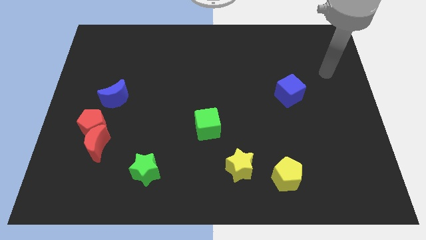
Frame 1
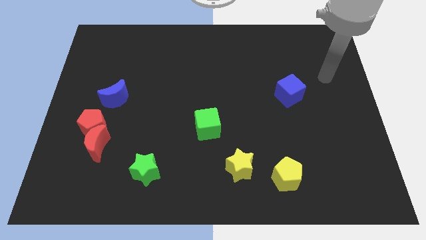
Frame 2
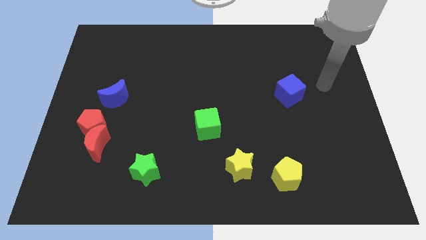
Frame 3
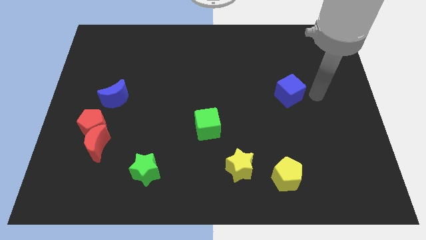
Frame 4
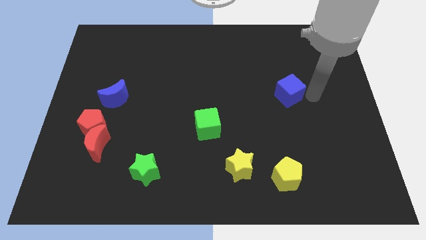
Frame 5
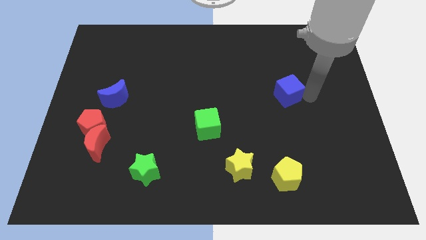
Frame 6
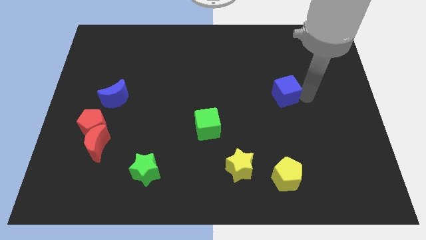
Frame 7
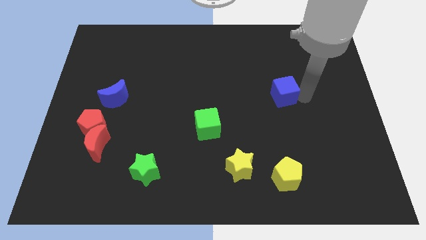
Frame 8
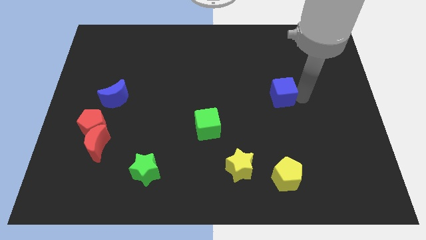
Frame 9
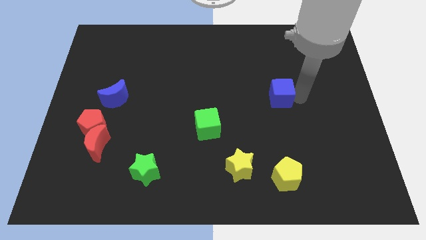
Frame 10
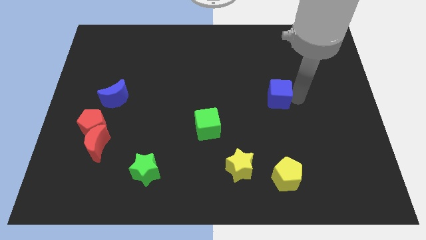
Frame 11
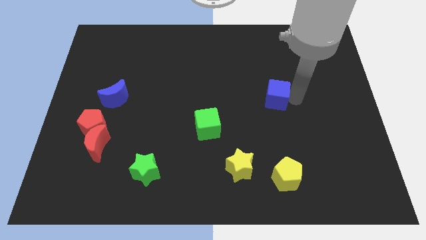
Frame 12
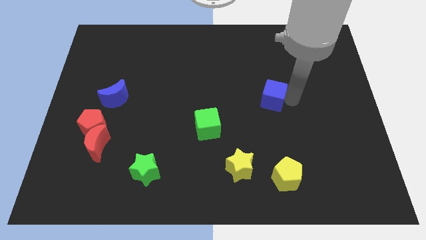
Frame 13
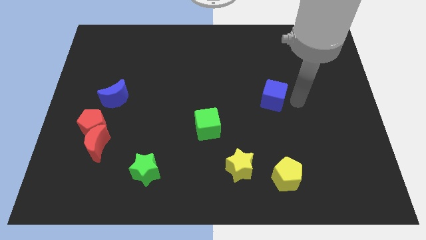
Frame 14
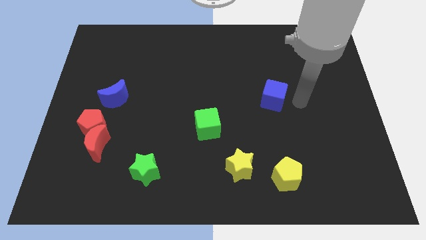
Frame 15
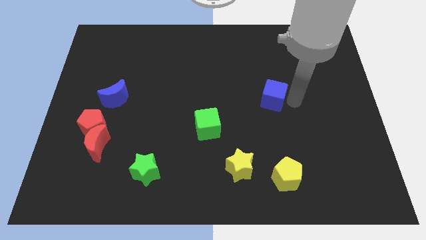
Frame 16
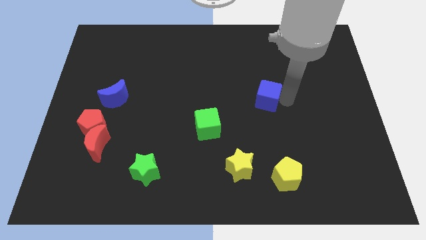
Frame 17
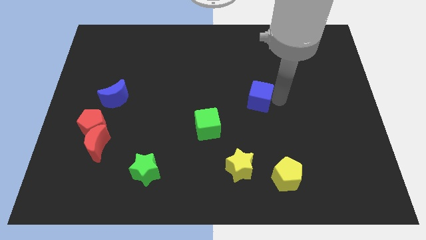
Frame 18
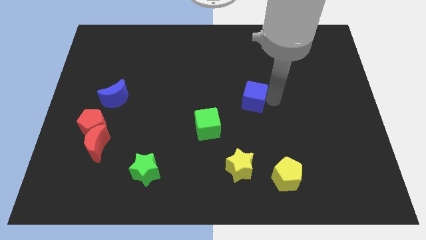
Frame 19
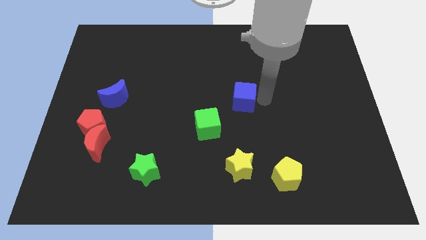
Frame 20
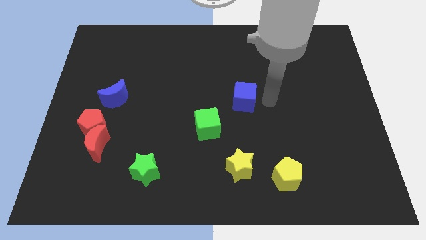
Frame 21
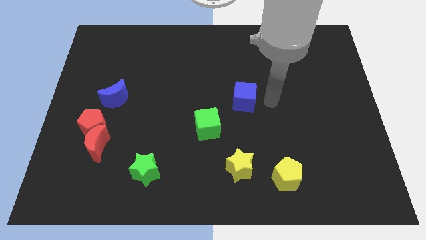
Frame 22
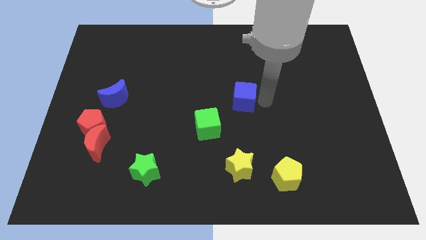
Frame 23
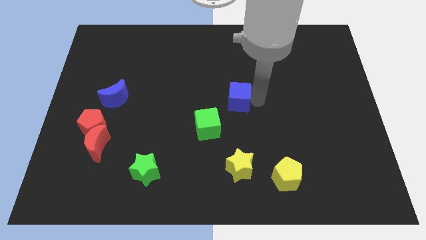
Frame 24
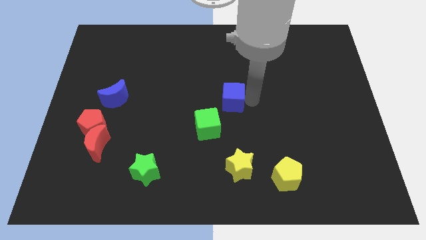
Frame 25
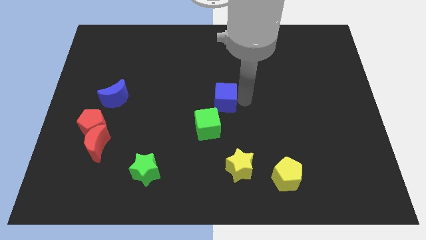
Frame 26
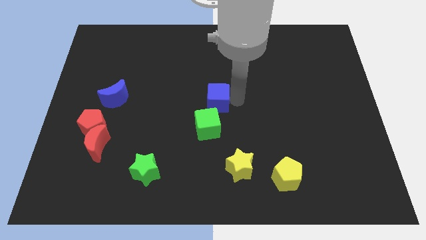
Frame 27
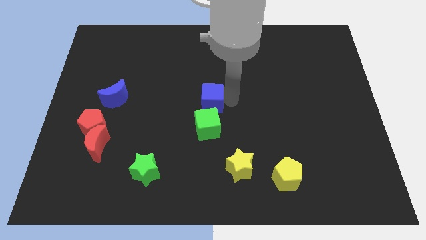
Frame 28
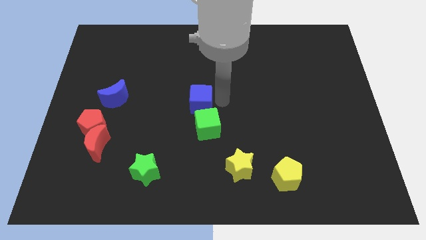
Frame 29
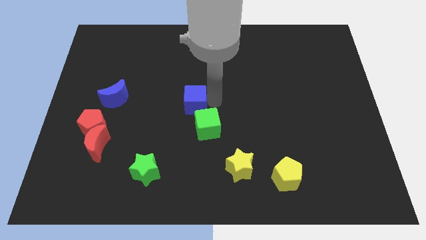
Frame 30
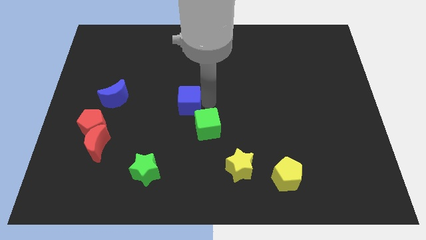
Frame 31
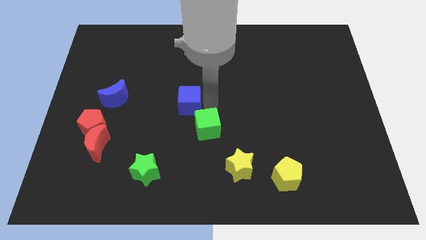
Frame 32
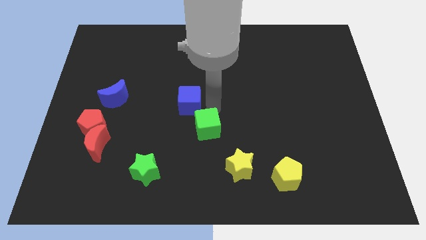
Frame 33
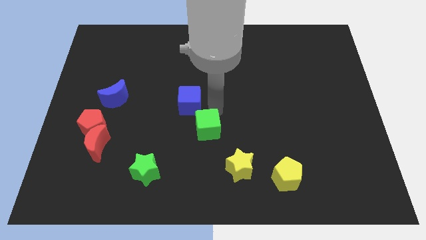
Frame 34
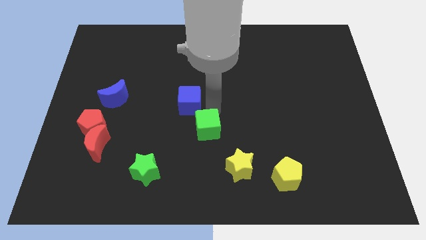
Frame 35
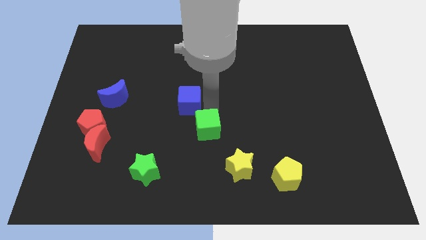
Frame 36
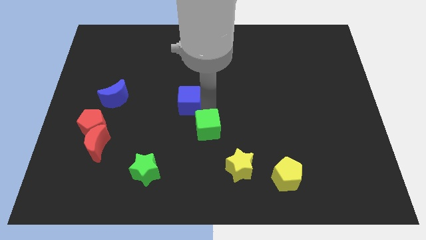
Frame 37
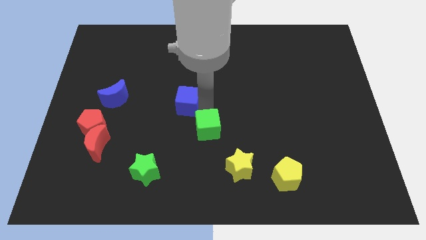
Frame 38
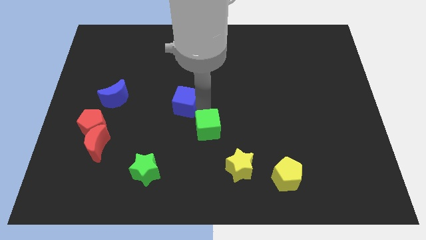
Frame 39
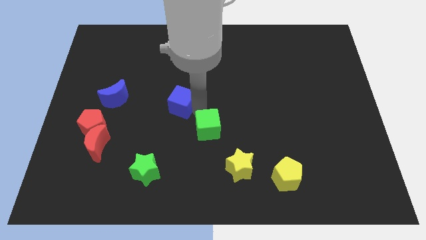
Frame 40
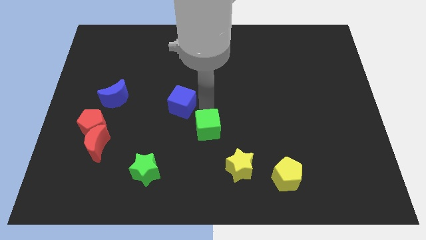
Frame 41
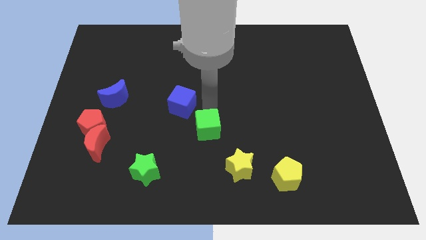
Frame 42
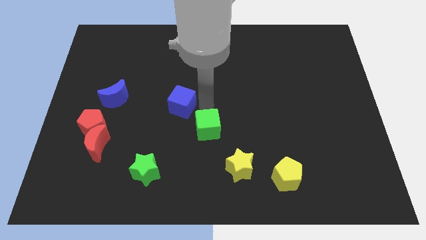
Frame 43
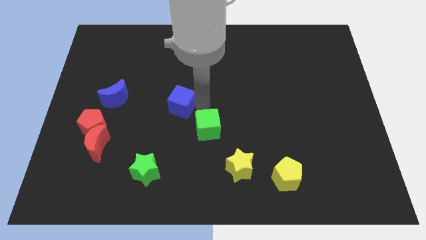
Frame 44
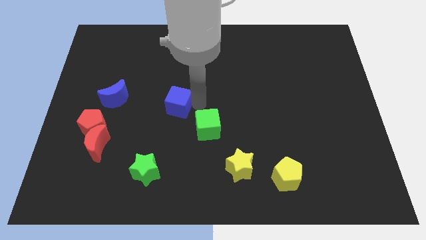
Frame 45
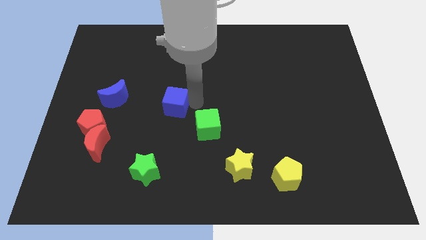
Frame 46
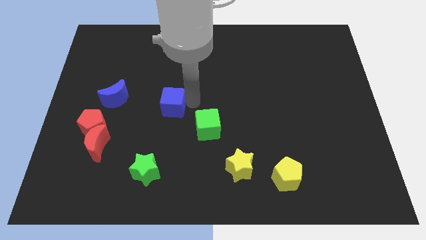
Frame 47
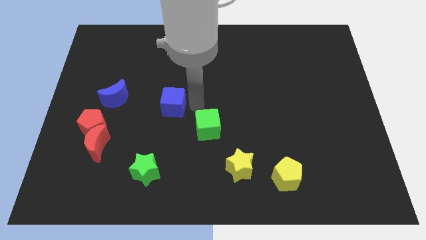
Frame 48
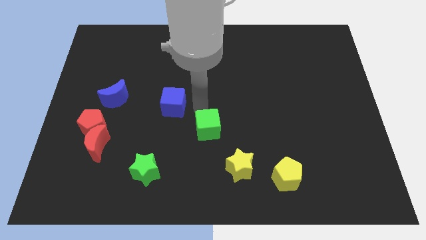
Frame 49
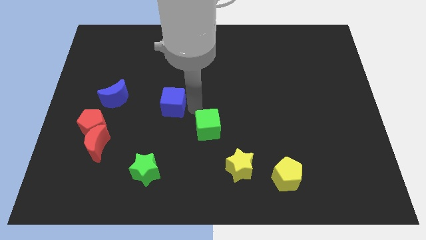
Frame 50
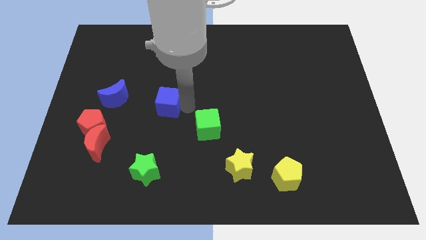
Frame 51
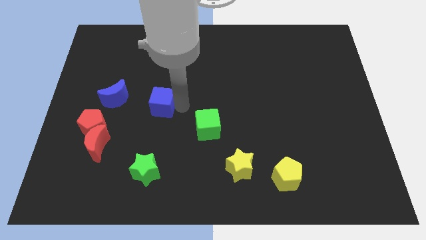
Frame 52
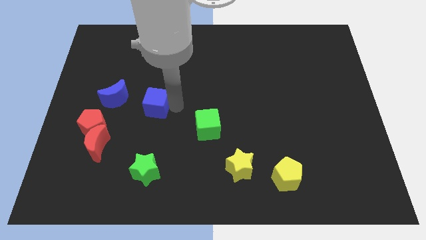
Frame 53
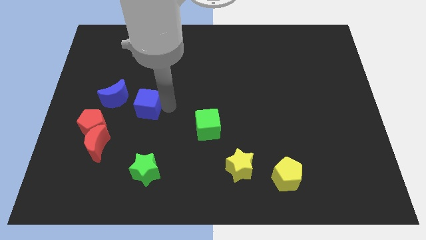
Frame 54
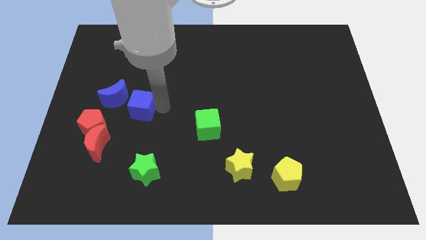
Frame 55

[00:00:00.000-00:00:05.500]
push the blue cube diagonally up and to the right of the red pentagon

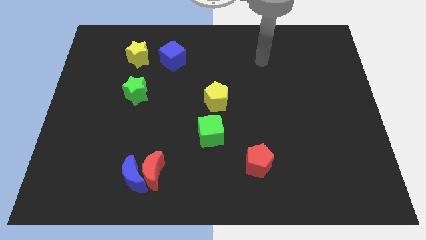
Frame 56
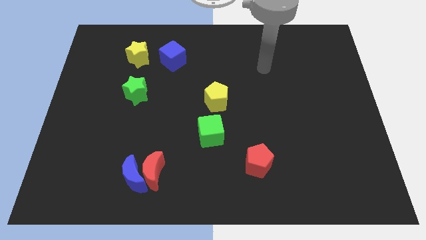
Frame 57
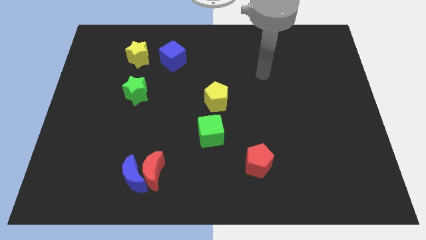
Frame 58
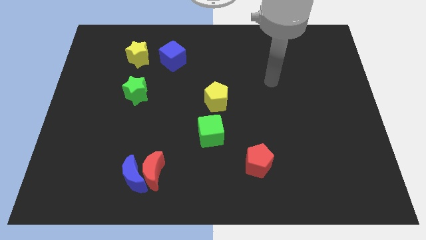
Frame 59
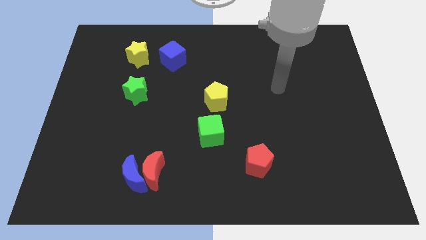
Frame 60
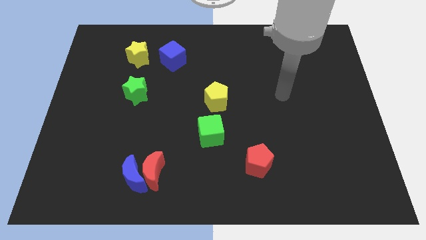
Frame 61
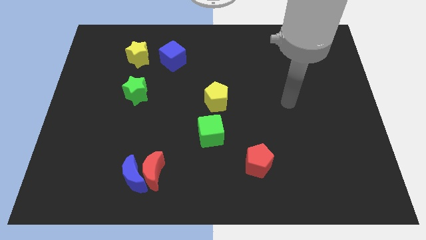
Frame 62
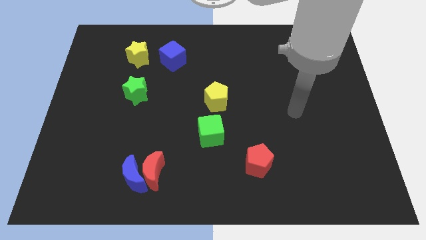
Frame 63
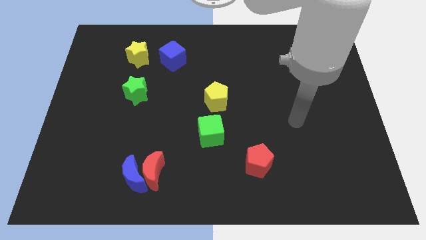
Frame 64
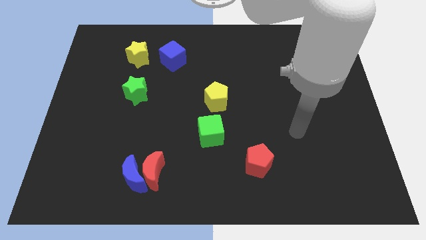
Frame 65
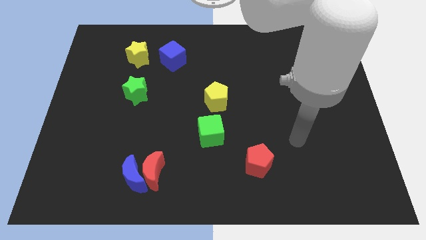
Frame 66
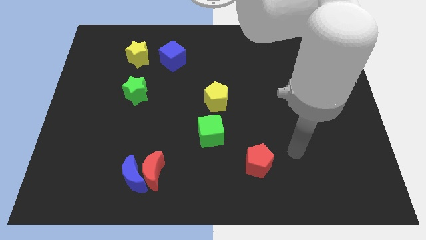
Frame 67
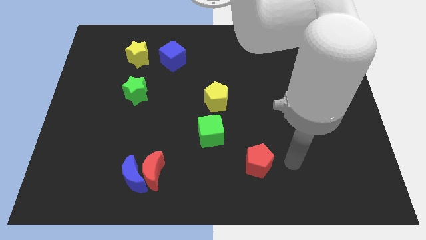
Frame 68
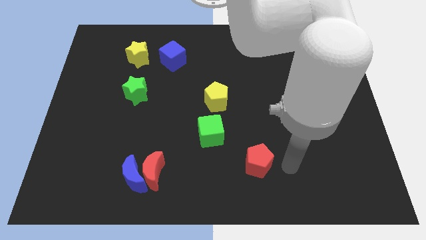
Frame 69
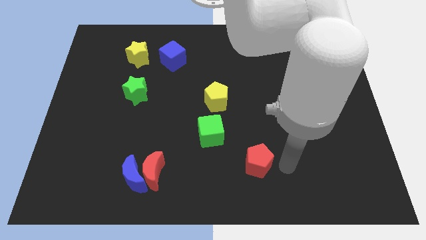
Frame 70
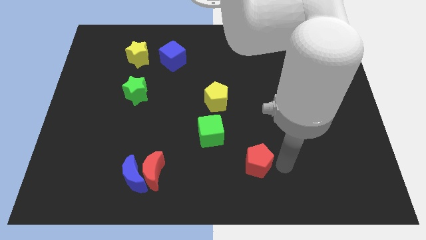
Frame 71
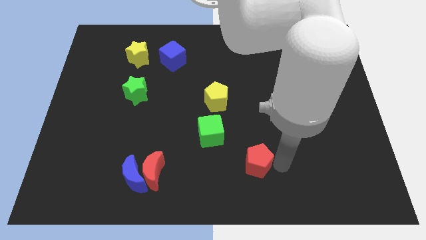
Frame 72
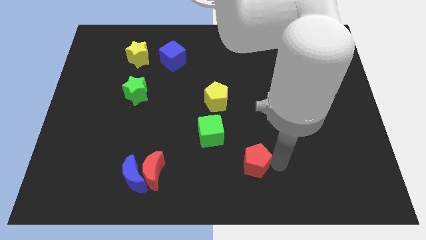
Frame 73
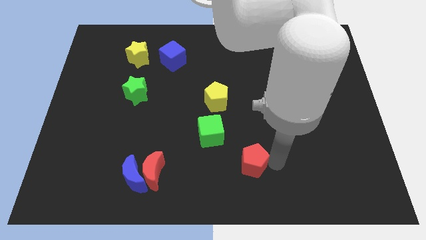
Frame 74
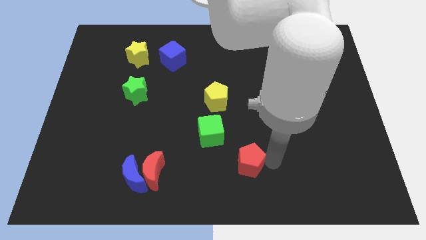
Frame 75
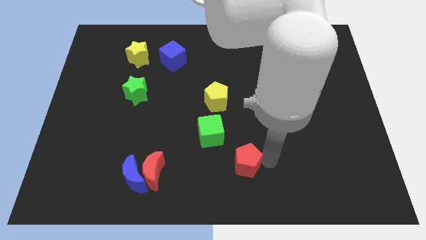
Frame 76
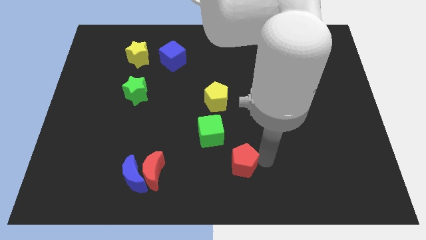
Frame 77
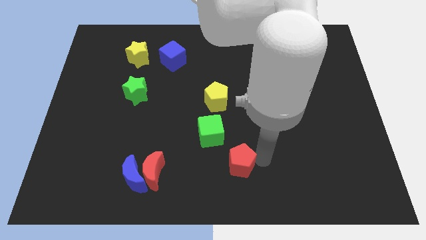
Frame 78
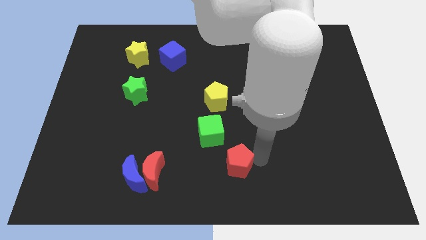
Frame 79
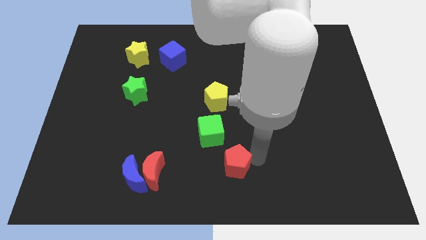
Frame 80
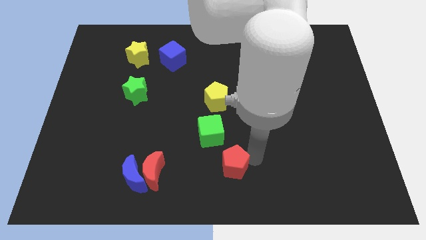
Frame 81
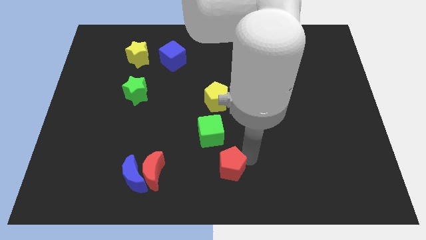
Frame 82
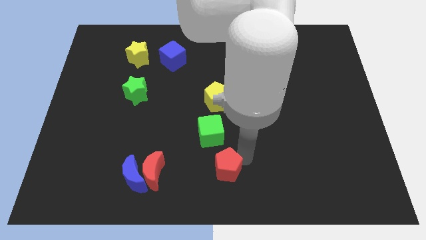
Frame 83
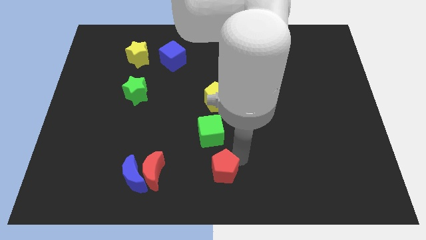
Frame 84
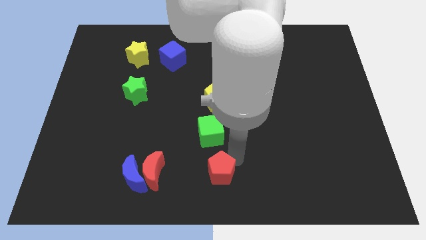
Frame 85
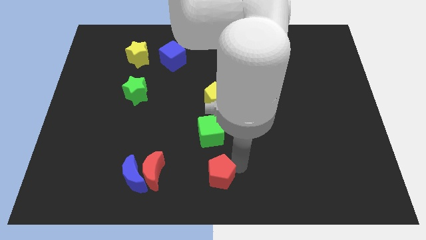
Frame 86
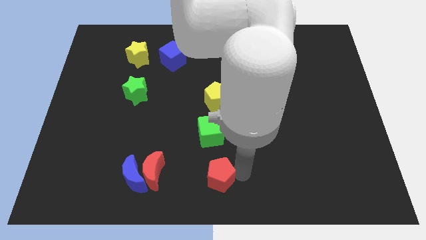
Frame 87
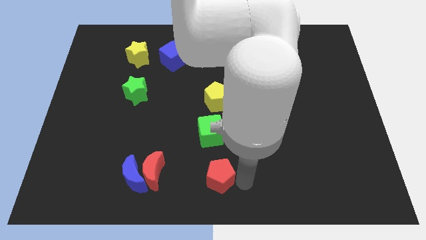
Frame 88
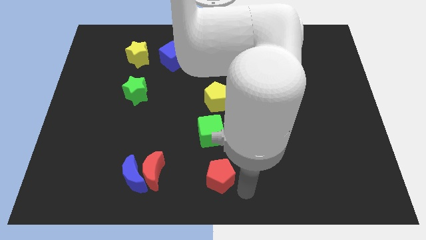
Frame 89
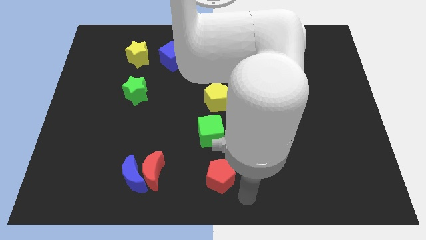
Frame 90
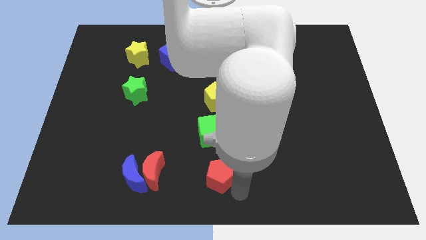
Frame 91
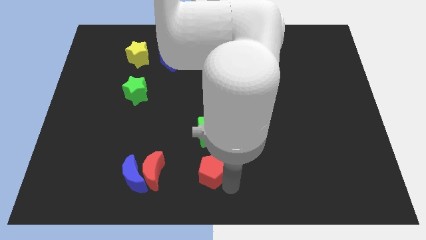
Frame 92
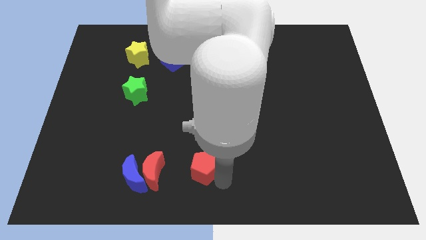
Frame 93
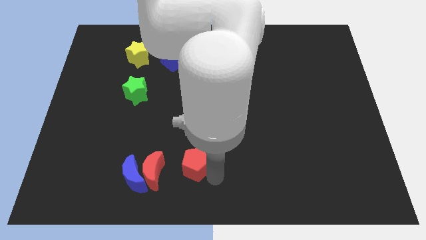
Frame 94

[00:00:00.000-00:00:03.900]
move the red pentagon to the bottom left of the green cube
